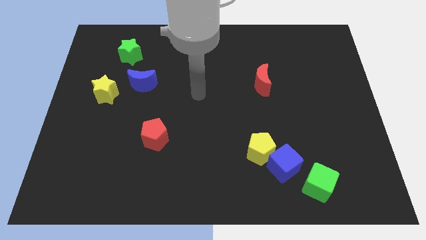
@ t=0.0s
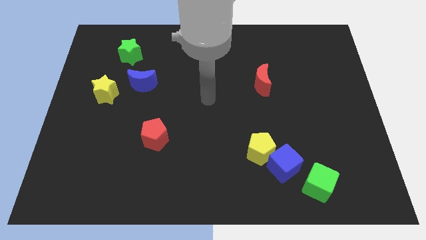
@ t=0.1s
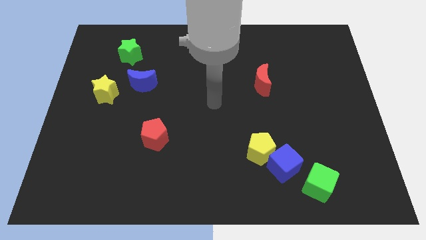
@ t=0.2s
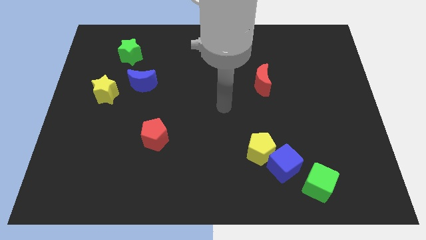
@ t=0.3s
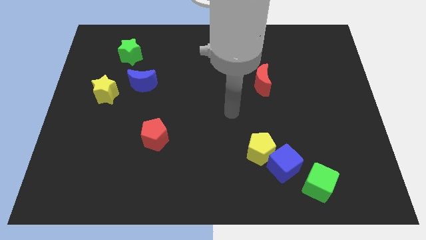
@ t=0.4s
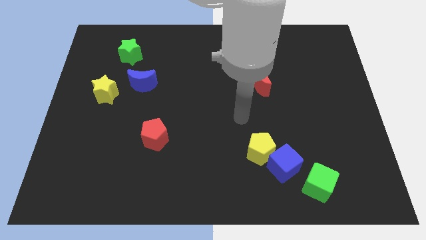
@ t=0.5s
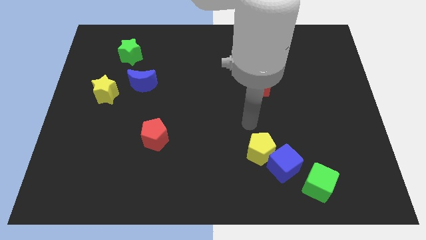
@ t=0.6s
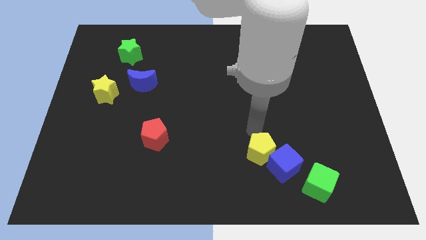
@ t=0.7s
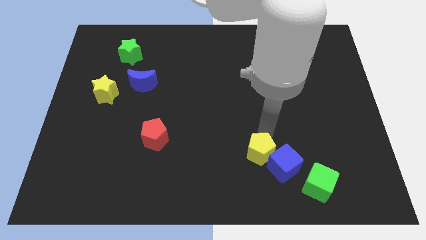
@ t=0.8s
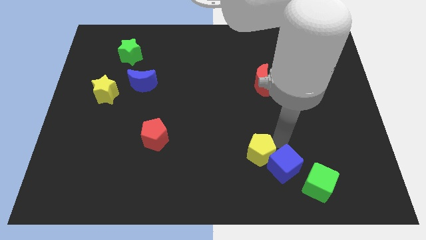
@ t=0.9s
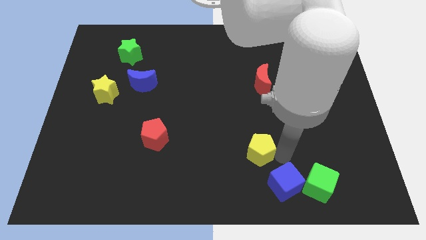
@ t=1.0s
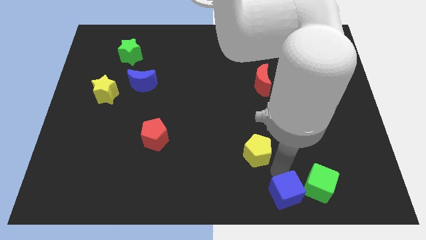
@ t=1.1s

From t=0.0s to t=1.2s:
separate the yellow pentagon from the blue cube

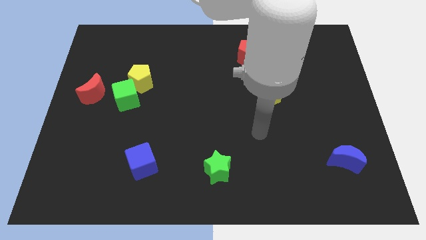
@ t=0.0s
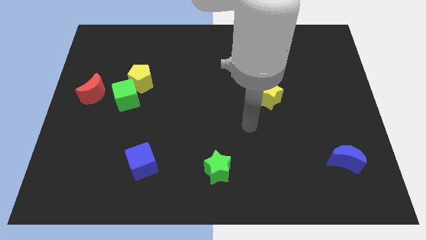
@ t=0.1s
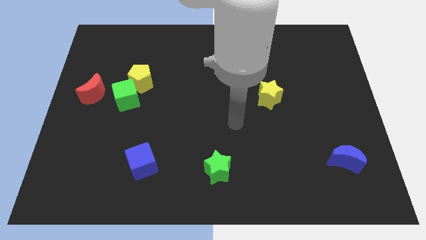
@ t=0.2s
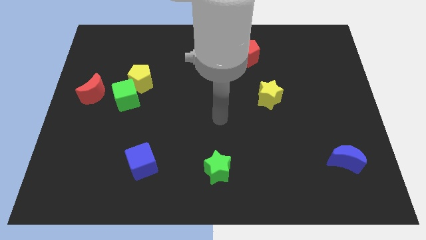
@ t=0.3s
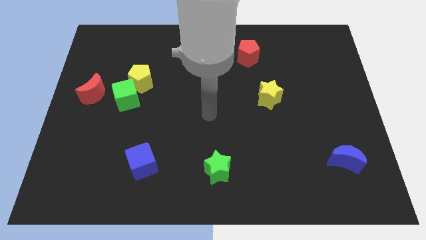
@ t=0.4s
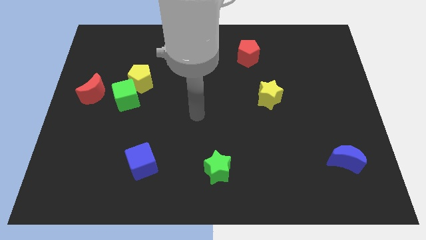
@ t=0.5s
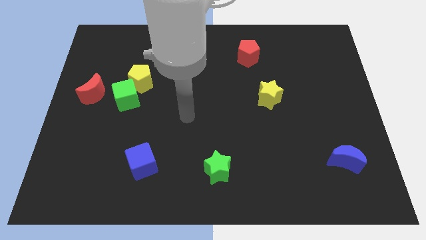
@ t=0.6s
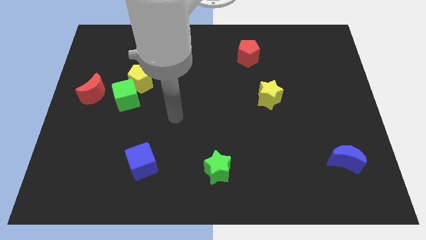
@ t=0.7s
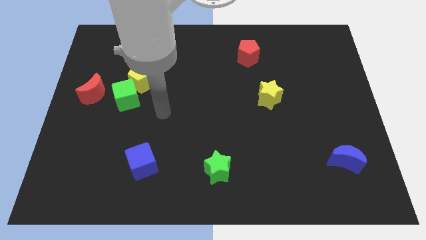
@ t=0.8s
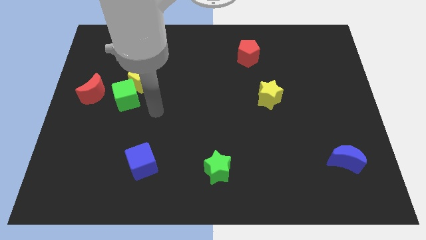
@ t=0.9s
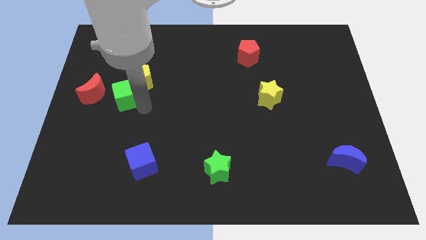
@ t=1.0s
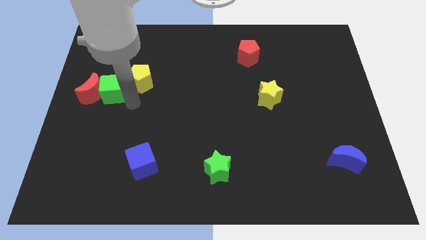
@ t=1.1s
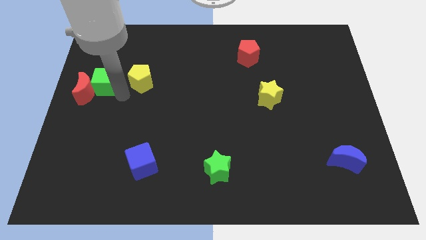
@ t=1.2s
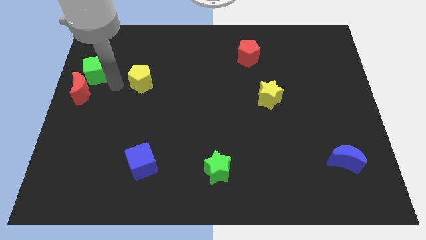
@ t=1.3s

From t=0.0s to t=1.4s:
pull the yellow pentagon apart from the green cube

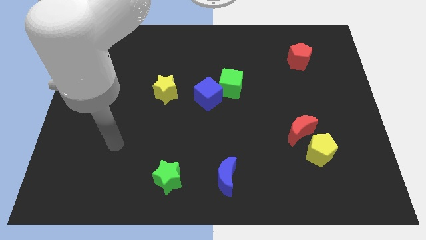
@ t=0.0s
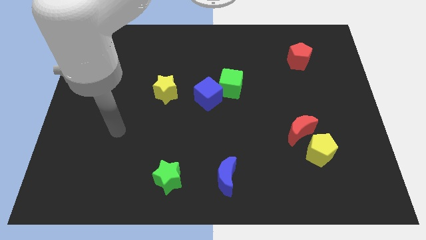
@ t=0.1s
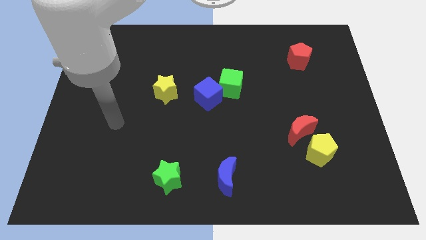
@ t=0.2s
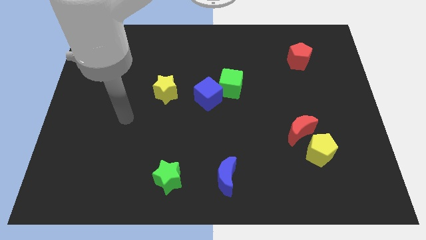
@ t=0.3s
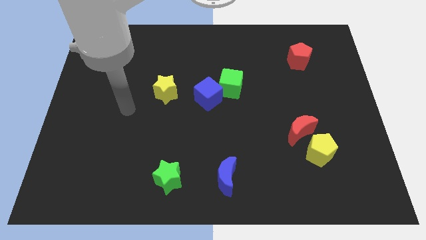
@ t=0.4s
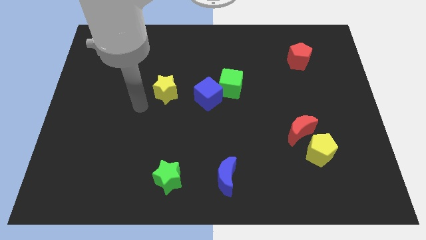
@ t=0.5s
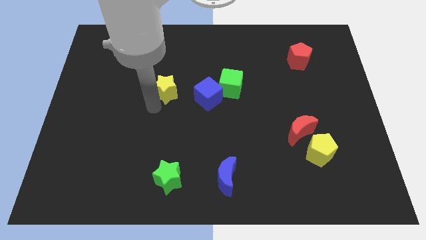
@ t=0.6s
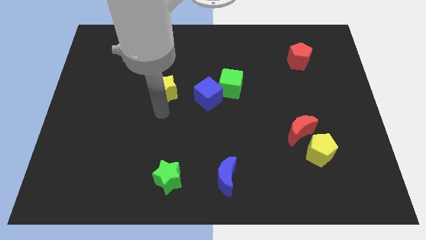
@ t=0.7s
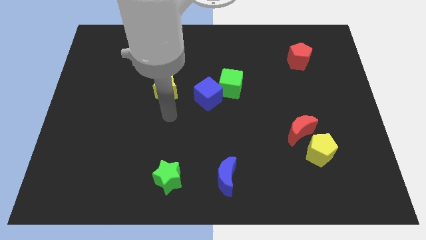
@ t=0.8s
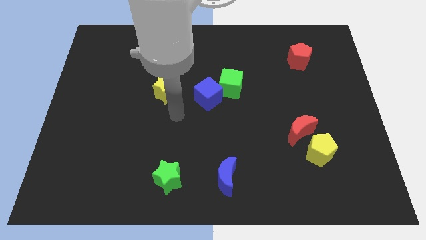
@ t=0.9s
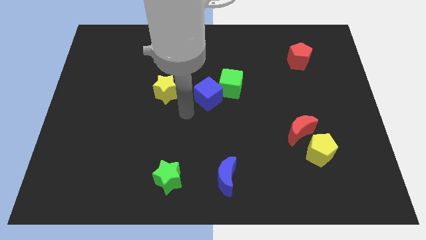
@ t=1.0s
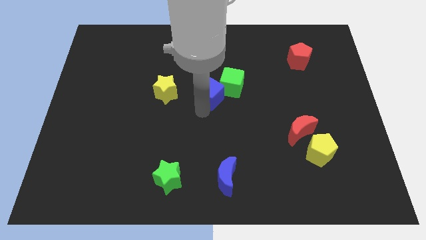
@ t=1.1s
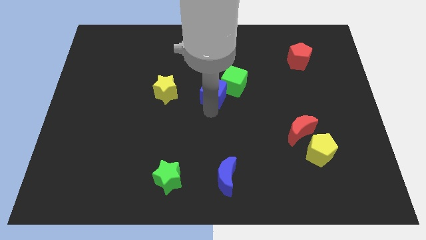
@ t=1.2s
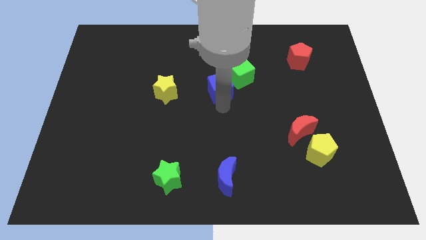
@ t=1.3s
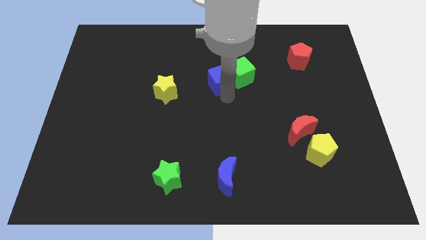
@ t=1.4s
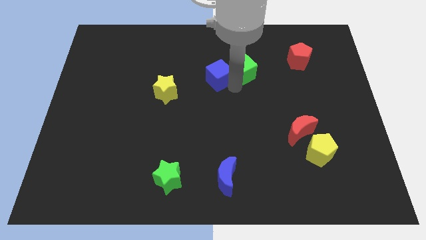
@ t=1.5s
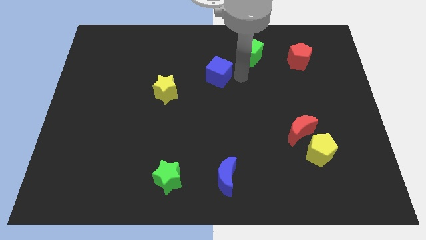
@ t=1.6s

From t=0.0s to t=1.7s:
separate the blue cube from the green cube

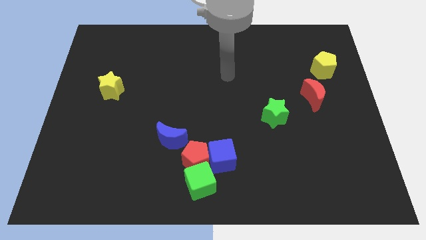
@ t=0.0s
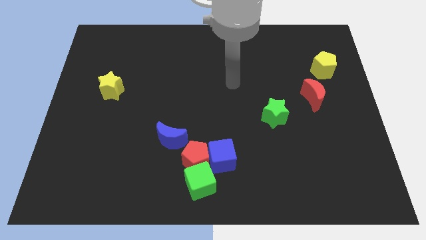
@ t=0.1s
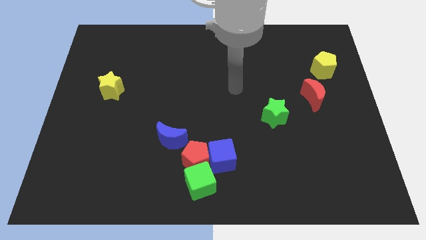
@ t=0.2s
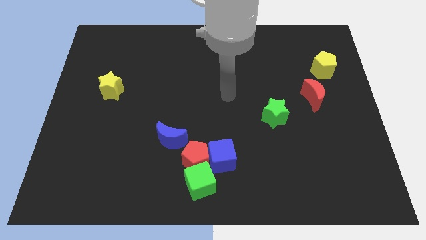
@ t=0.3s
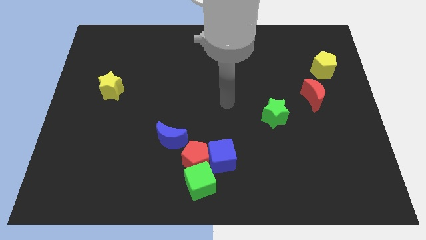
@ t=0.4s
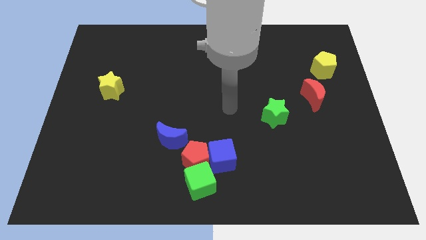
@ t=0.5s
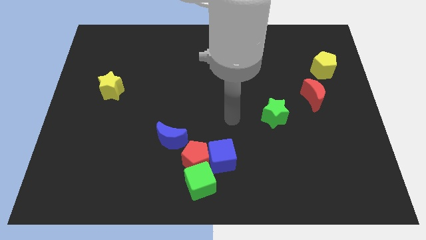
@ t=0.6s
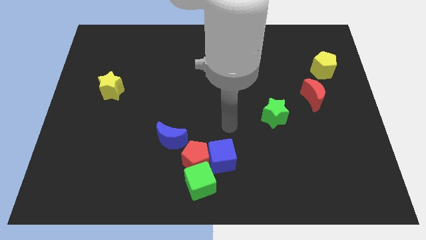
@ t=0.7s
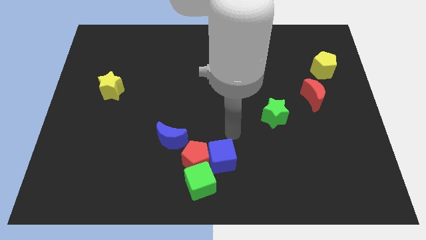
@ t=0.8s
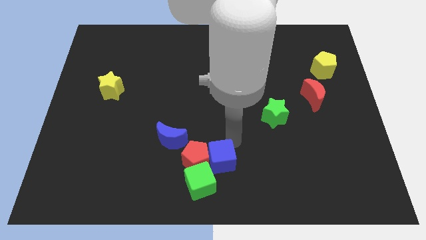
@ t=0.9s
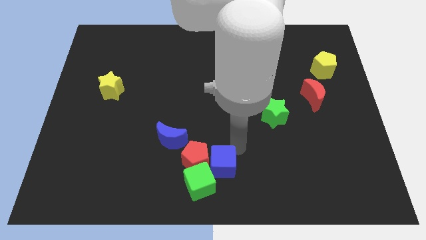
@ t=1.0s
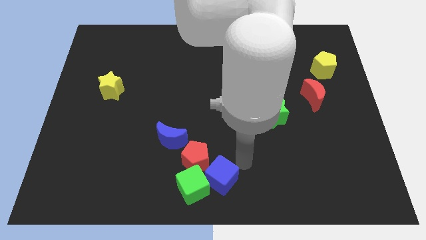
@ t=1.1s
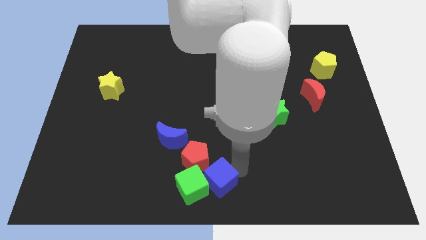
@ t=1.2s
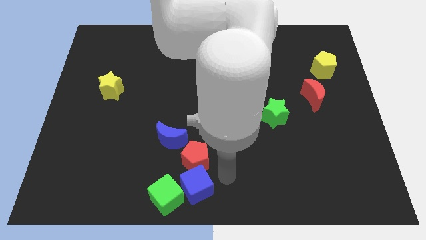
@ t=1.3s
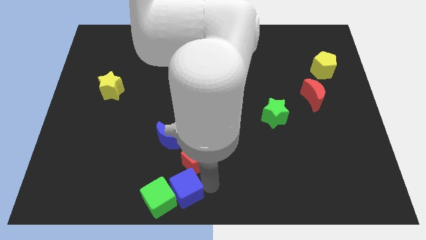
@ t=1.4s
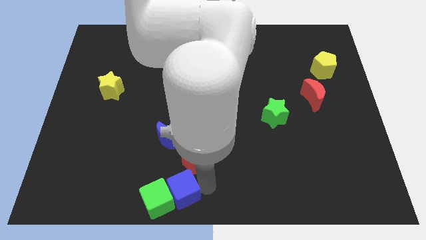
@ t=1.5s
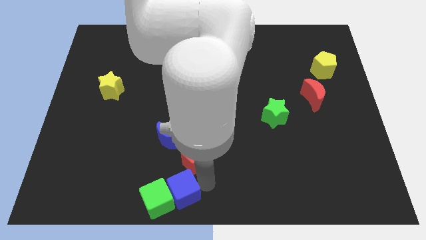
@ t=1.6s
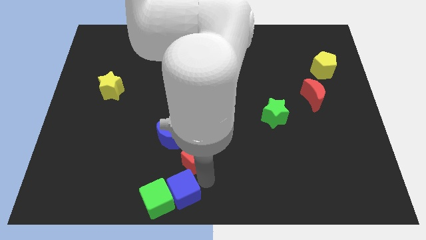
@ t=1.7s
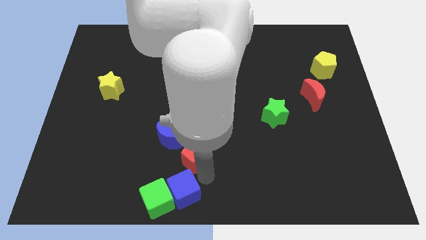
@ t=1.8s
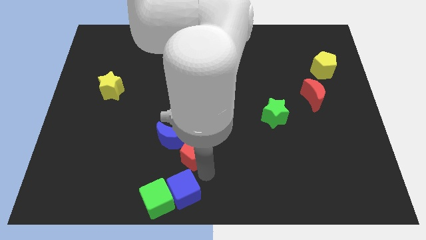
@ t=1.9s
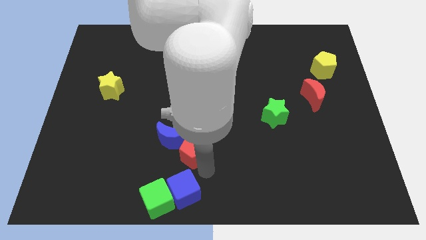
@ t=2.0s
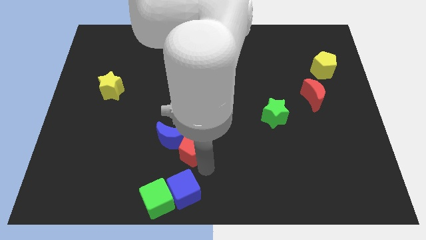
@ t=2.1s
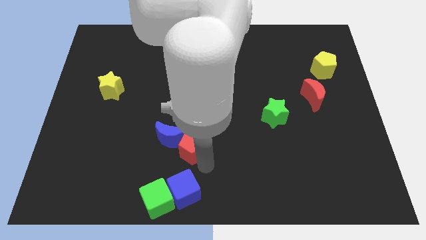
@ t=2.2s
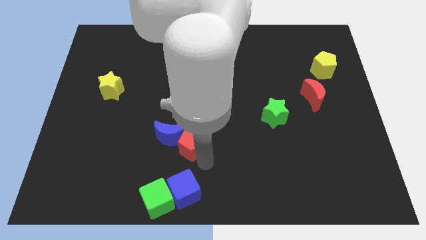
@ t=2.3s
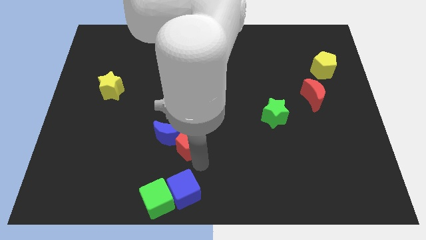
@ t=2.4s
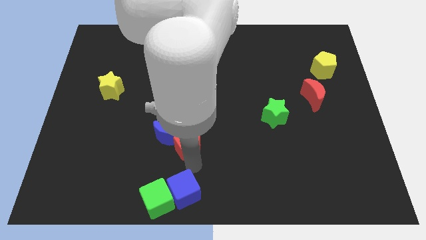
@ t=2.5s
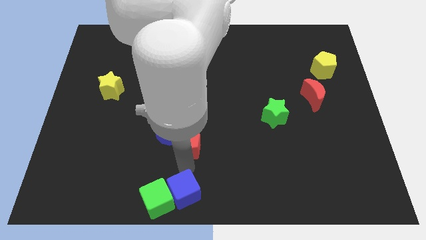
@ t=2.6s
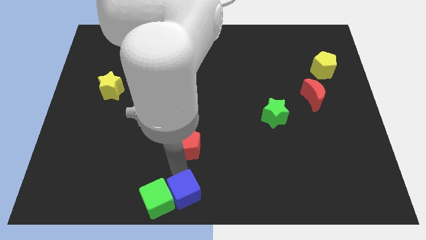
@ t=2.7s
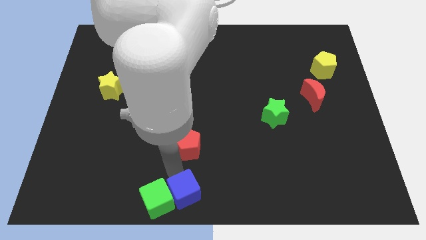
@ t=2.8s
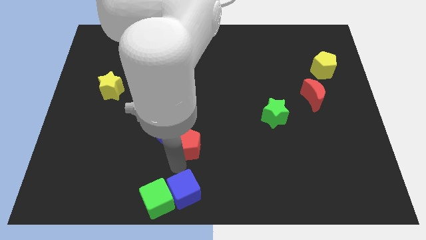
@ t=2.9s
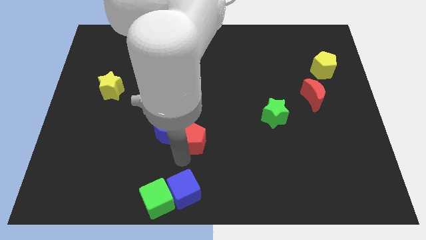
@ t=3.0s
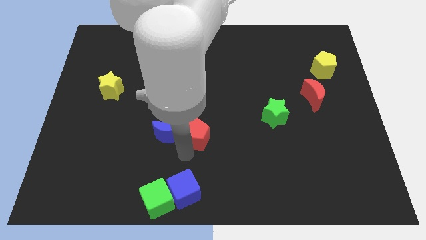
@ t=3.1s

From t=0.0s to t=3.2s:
pull the red pentagon apart from the blue cube, green cube, and blue moon

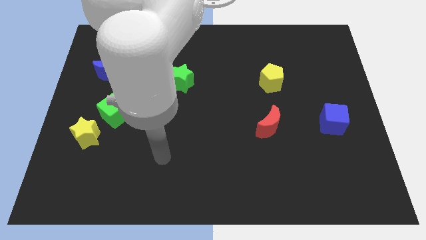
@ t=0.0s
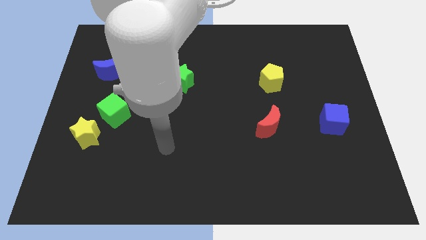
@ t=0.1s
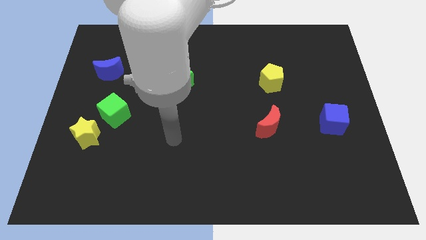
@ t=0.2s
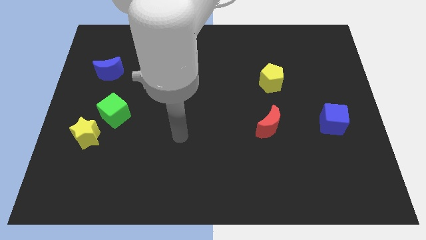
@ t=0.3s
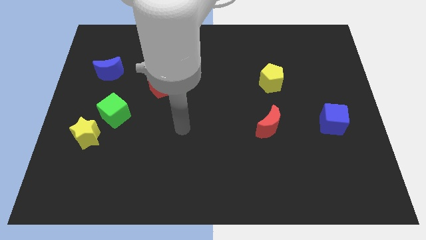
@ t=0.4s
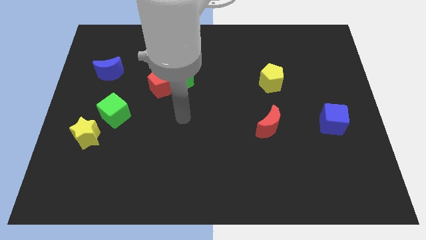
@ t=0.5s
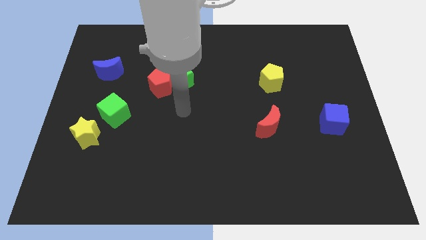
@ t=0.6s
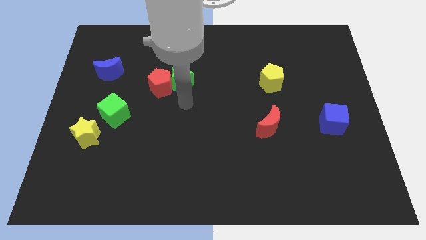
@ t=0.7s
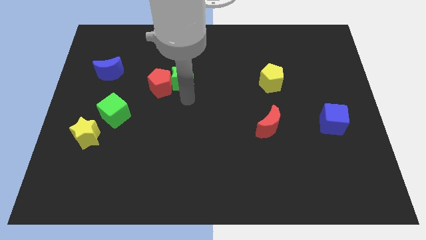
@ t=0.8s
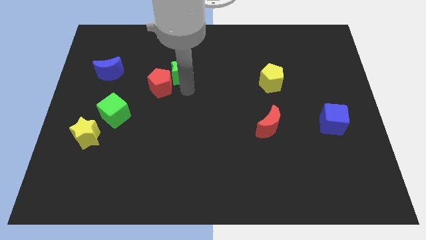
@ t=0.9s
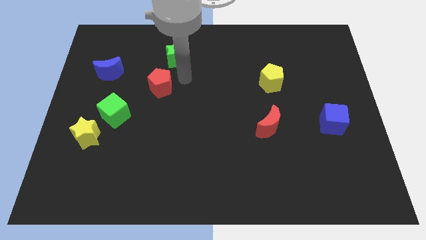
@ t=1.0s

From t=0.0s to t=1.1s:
move the red pentagon away from the green star

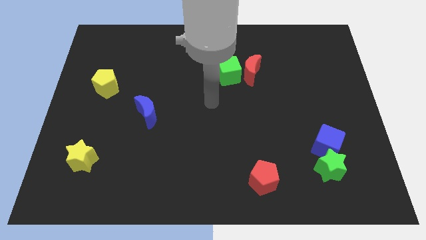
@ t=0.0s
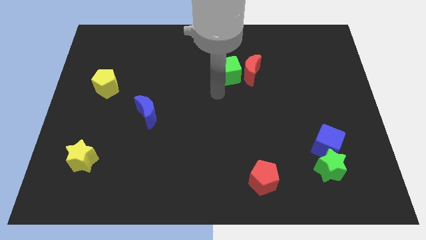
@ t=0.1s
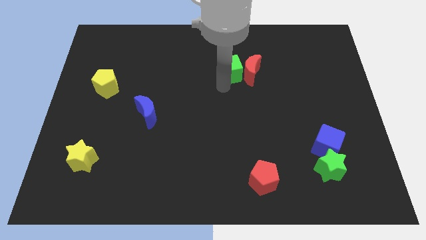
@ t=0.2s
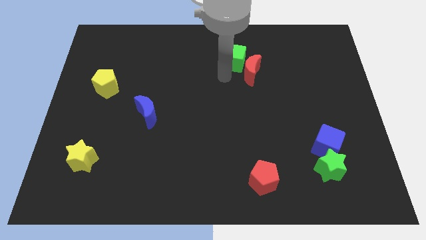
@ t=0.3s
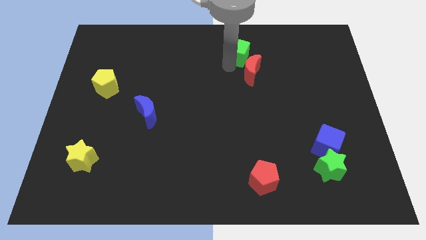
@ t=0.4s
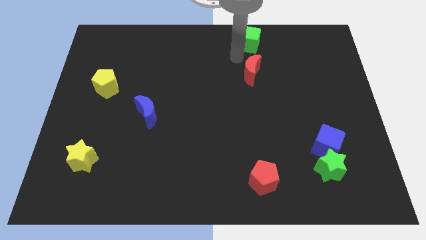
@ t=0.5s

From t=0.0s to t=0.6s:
move the red moon away from the green cube
